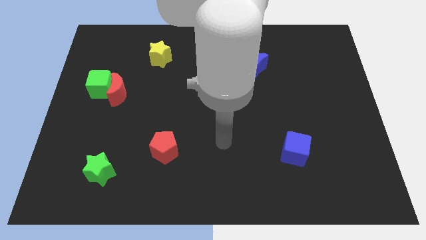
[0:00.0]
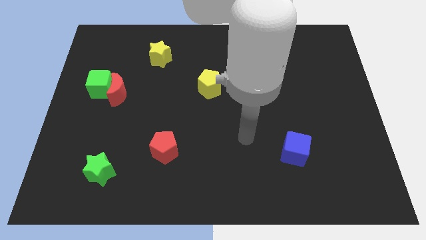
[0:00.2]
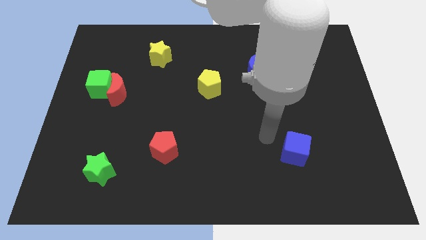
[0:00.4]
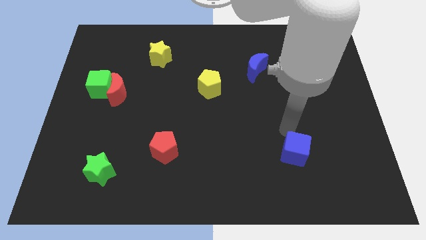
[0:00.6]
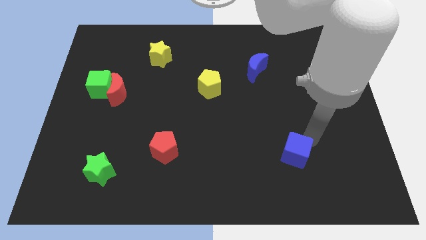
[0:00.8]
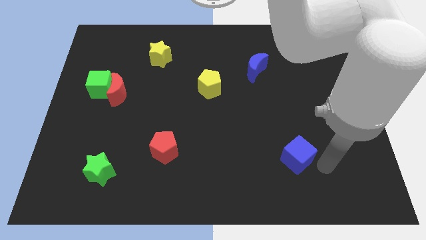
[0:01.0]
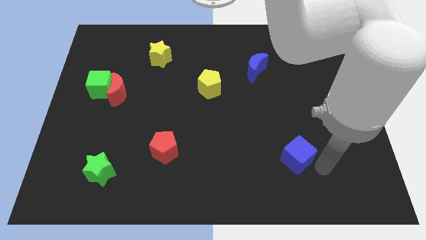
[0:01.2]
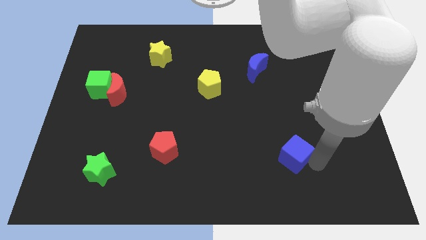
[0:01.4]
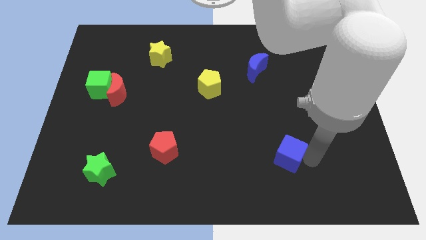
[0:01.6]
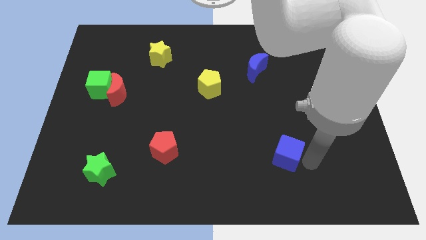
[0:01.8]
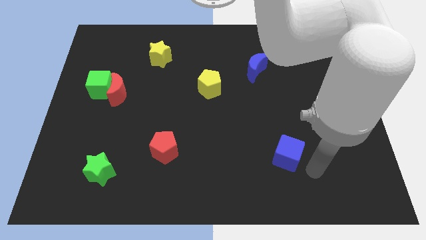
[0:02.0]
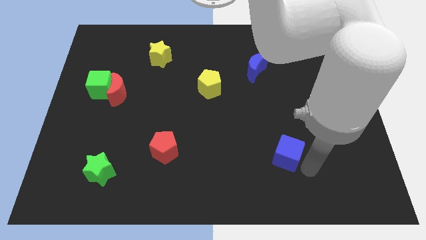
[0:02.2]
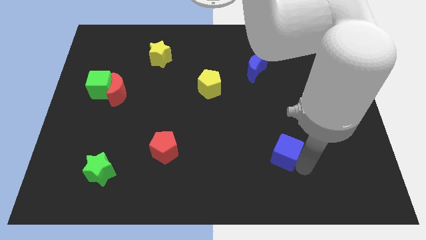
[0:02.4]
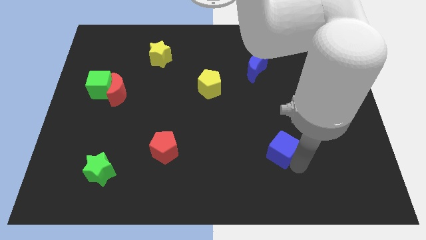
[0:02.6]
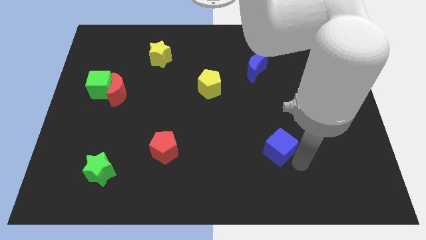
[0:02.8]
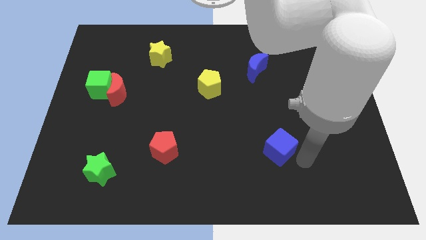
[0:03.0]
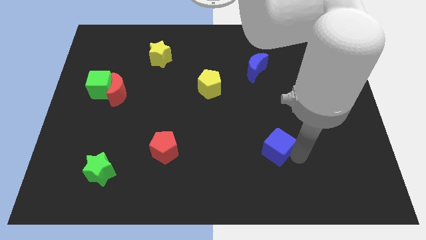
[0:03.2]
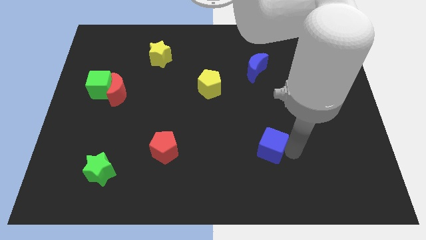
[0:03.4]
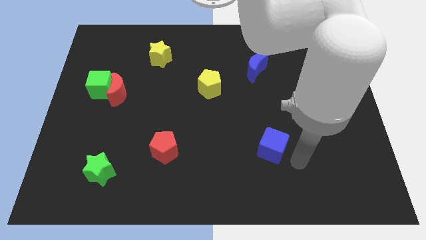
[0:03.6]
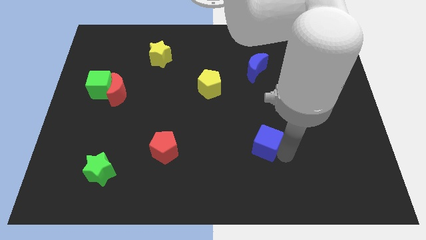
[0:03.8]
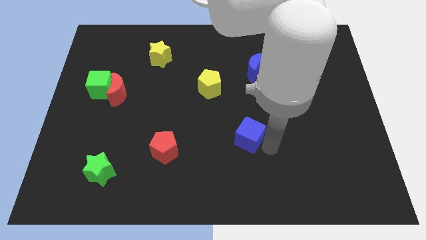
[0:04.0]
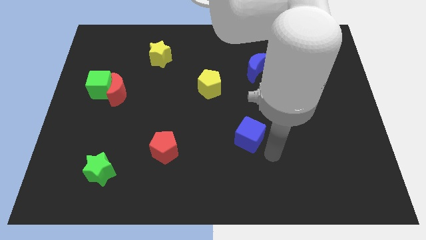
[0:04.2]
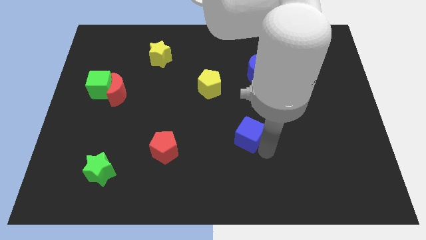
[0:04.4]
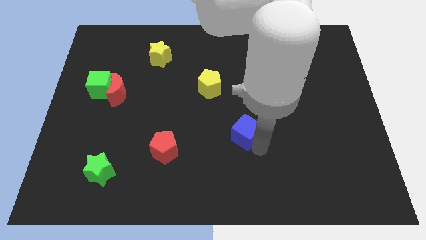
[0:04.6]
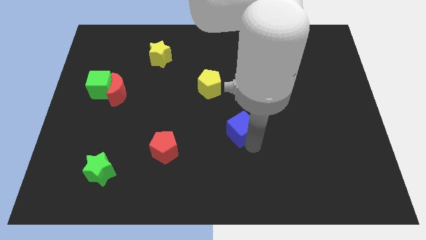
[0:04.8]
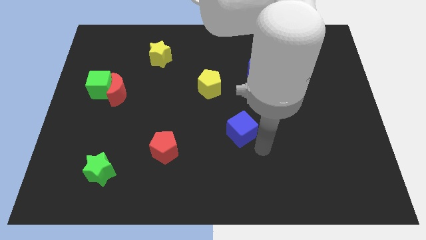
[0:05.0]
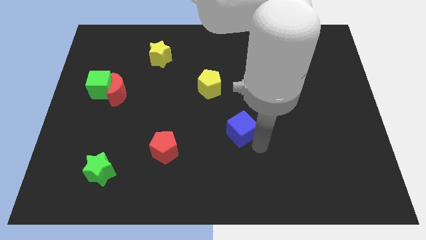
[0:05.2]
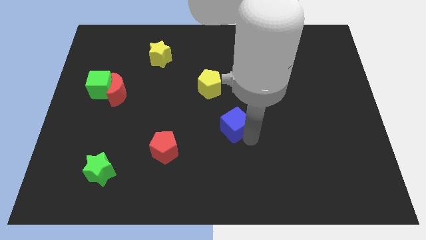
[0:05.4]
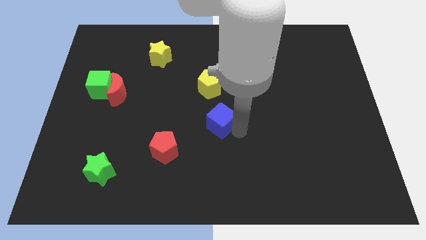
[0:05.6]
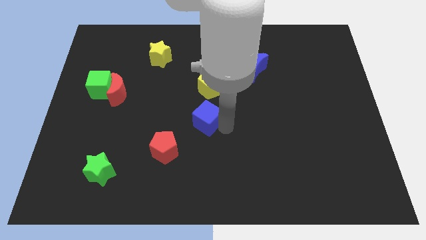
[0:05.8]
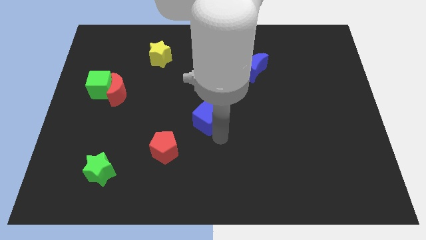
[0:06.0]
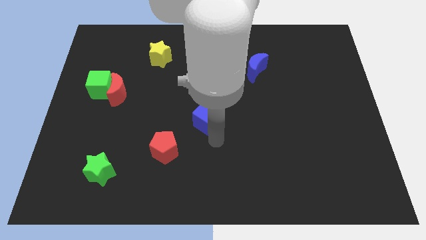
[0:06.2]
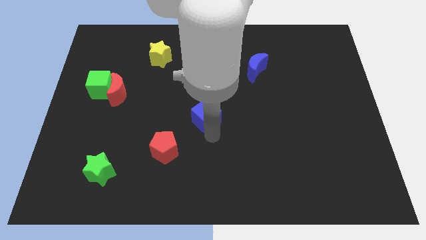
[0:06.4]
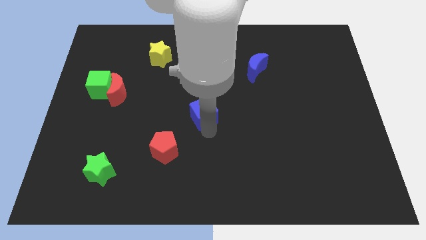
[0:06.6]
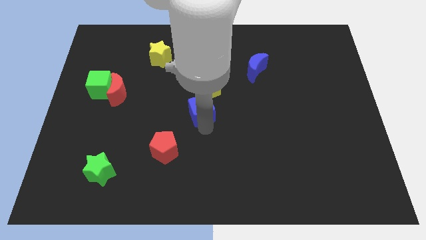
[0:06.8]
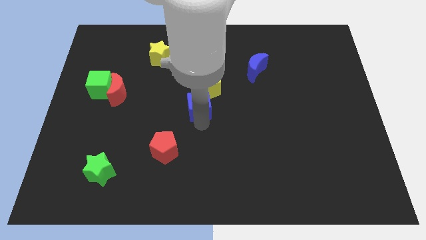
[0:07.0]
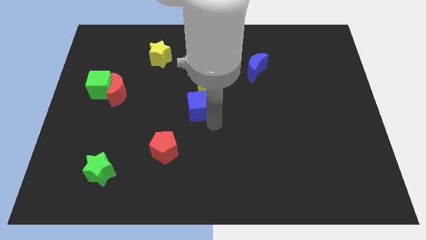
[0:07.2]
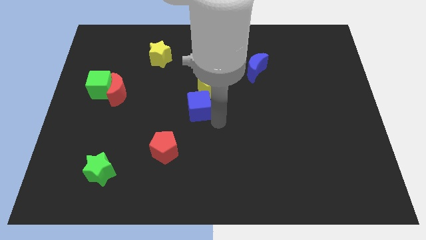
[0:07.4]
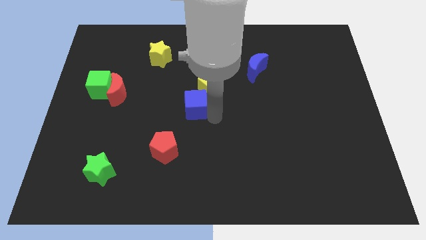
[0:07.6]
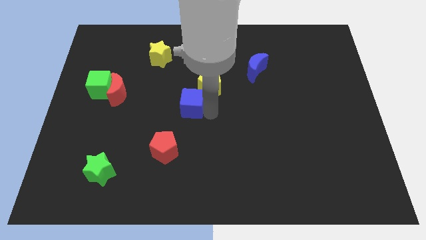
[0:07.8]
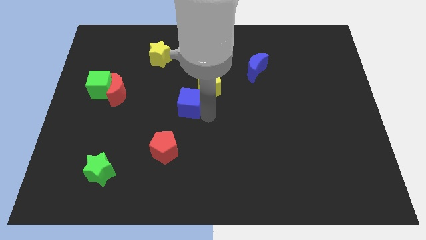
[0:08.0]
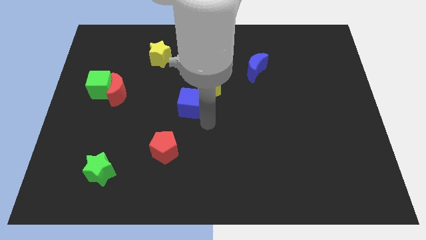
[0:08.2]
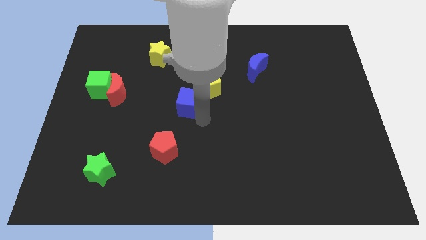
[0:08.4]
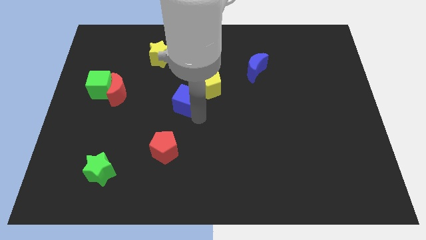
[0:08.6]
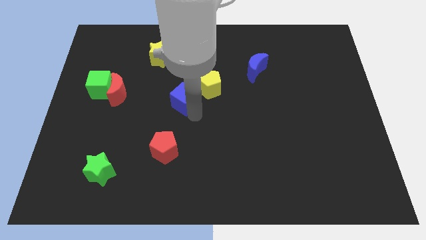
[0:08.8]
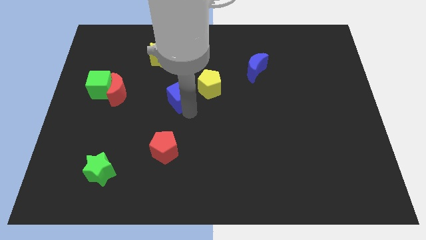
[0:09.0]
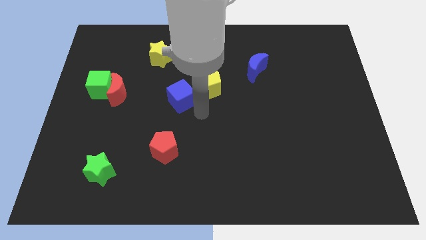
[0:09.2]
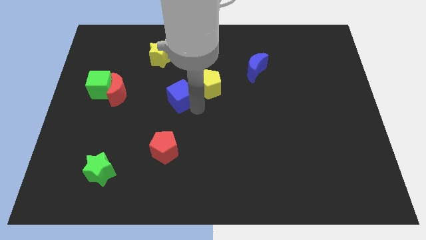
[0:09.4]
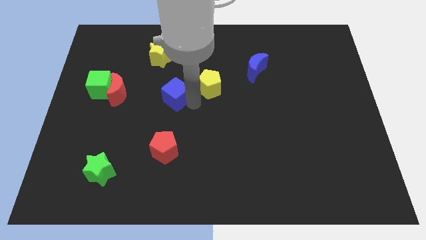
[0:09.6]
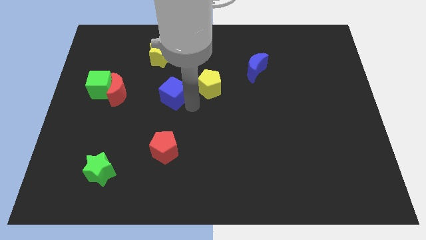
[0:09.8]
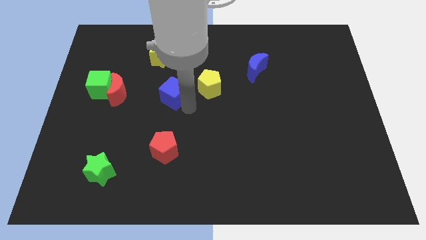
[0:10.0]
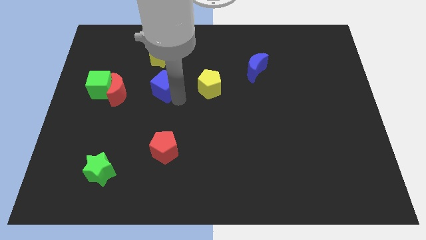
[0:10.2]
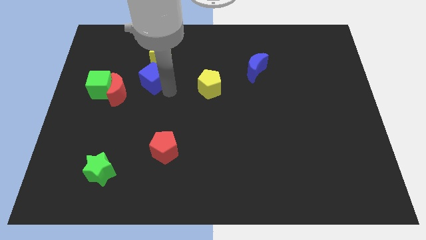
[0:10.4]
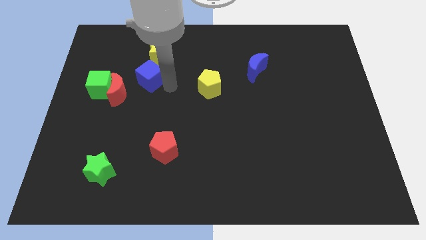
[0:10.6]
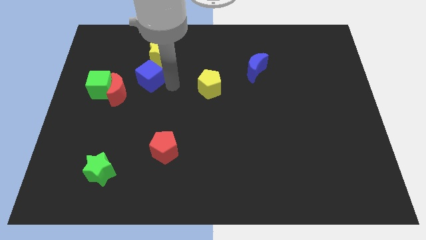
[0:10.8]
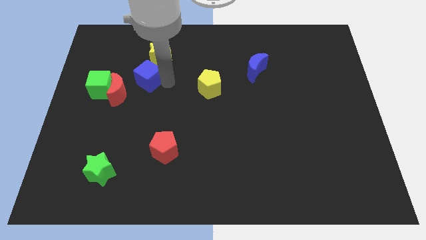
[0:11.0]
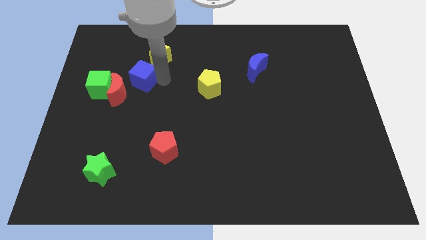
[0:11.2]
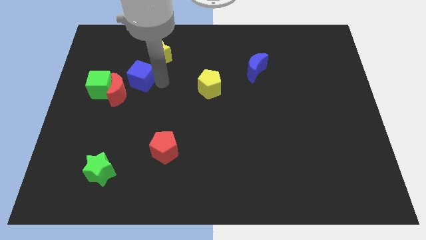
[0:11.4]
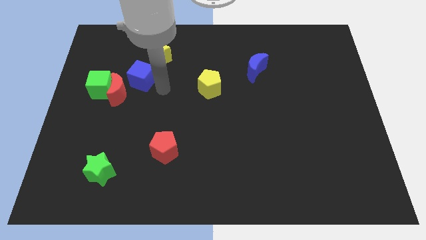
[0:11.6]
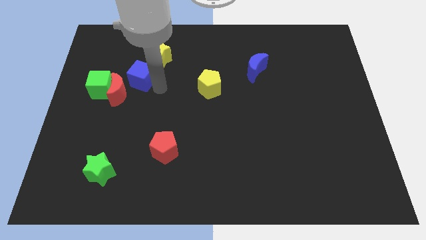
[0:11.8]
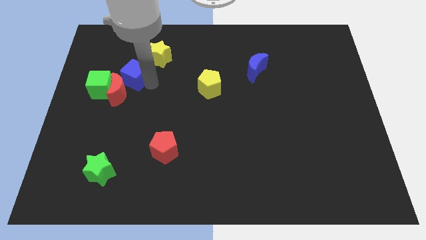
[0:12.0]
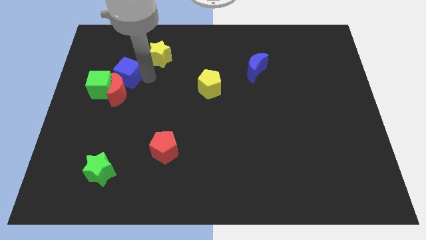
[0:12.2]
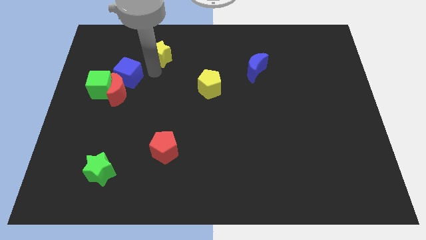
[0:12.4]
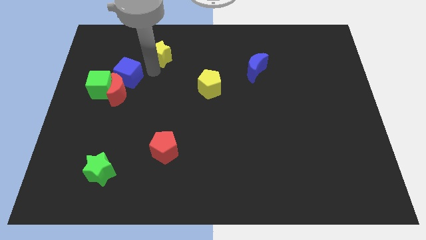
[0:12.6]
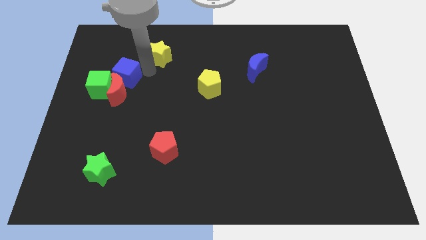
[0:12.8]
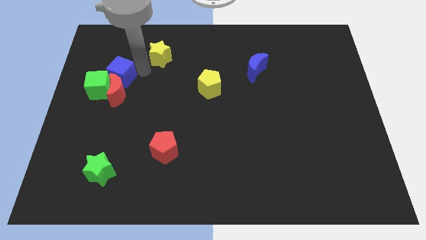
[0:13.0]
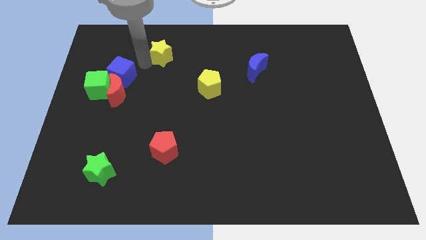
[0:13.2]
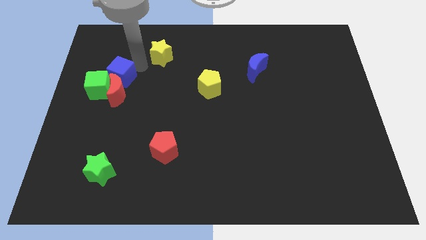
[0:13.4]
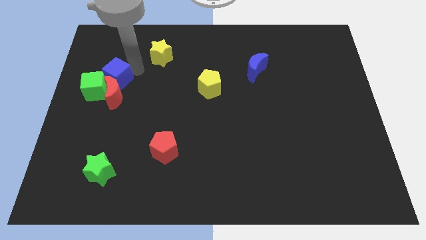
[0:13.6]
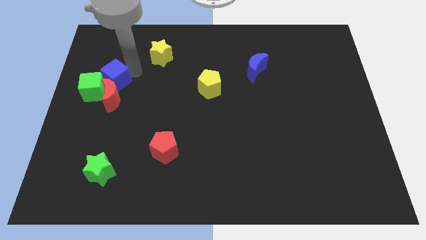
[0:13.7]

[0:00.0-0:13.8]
push the blue cube to the green cube

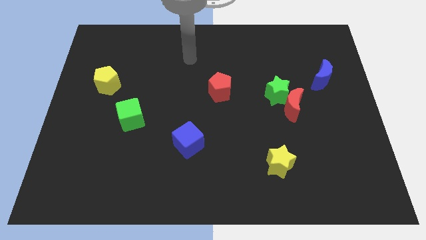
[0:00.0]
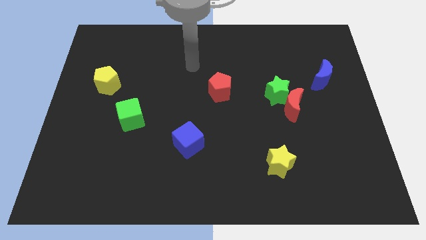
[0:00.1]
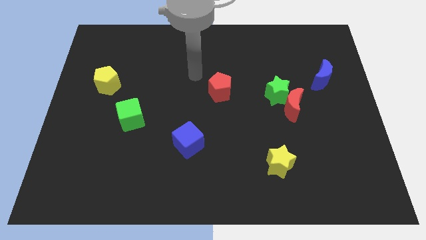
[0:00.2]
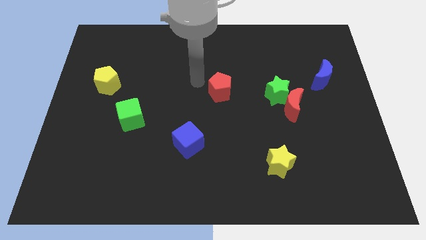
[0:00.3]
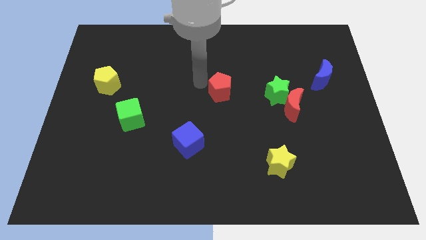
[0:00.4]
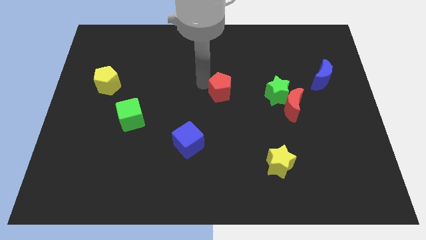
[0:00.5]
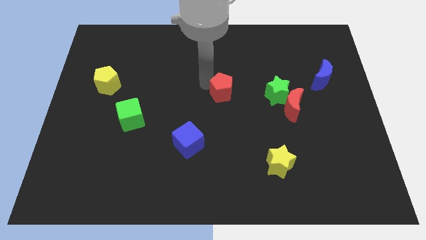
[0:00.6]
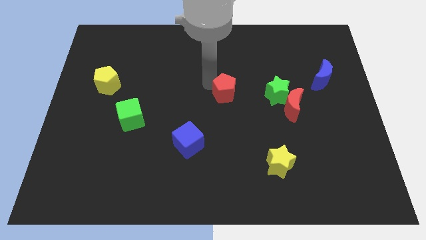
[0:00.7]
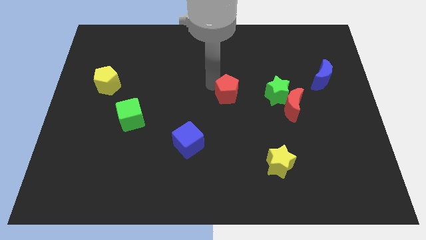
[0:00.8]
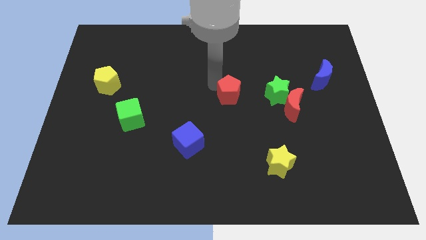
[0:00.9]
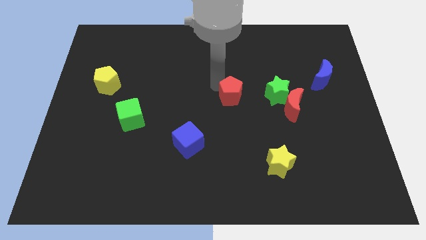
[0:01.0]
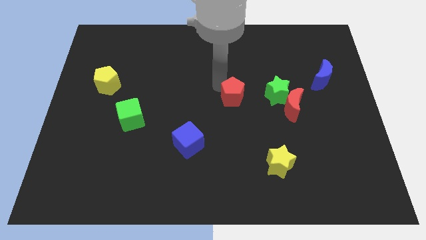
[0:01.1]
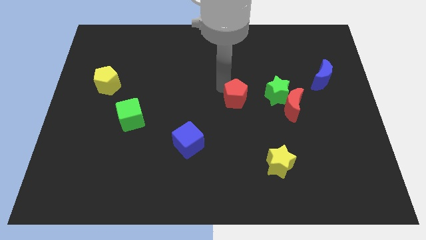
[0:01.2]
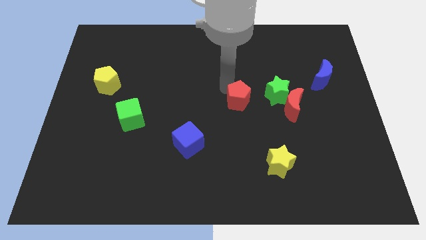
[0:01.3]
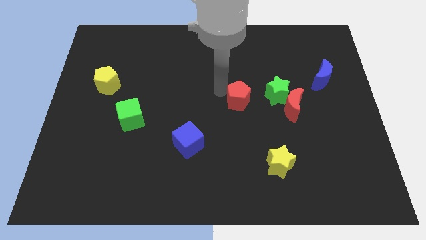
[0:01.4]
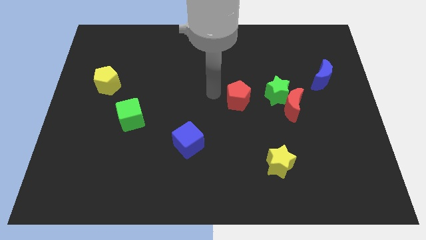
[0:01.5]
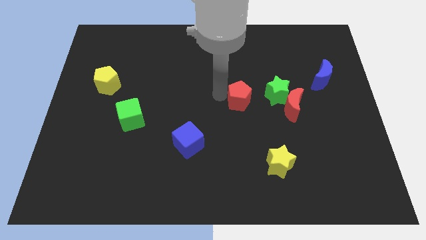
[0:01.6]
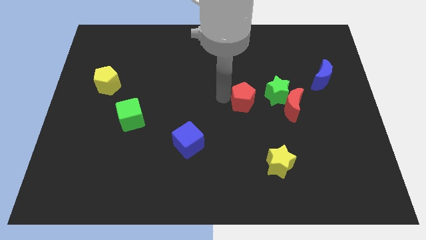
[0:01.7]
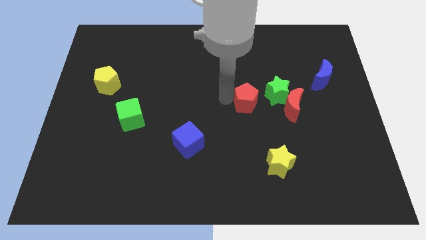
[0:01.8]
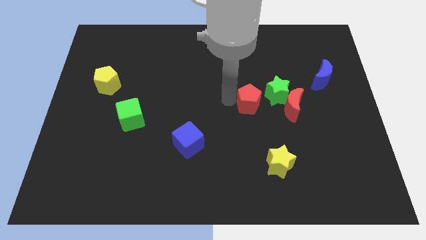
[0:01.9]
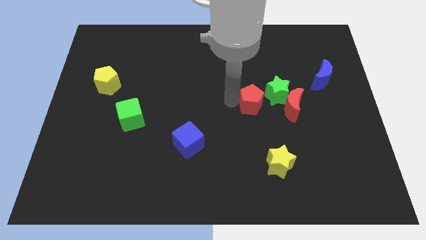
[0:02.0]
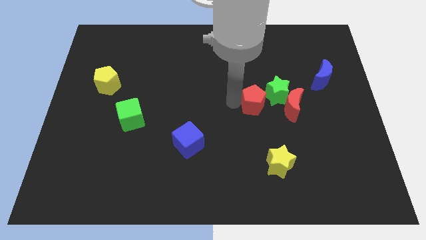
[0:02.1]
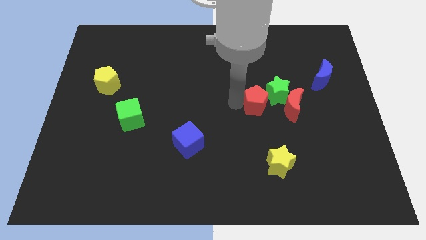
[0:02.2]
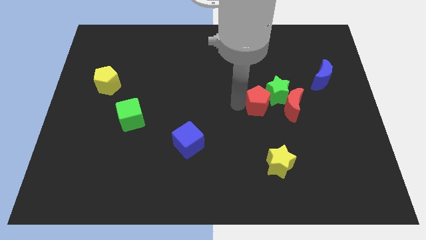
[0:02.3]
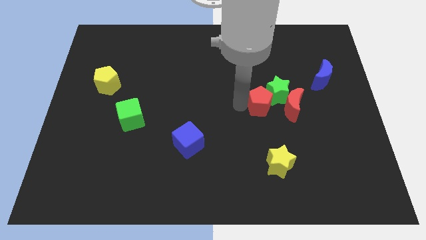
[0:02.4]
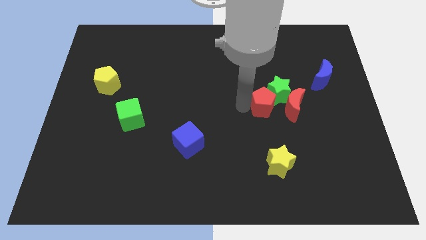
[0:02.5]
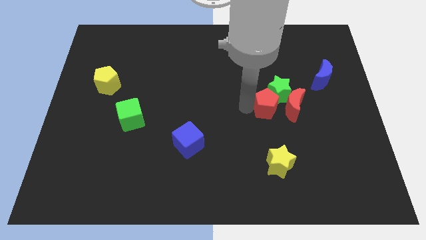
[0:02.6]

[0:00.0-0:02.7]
push the red pentagon towards the red moon
